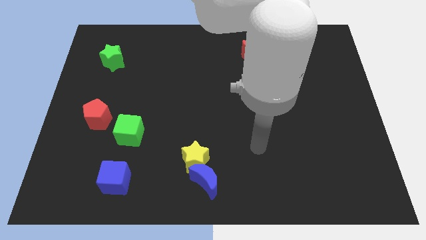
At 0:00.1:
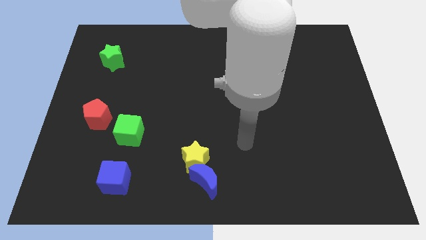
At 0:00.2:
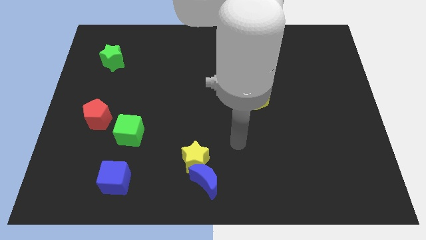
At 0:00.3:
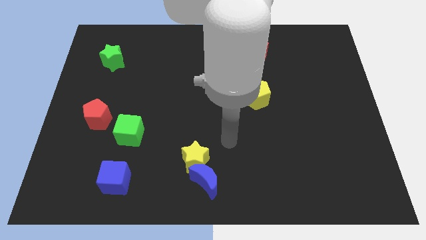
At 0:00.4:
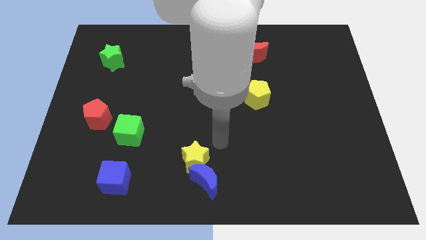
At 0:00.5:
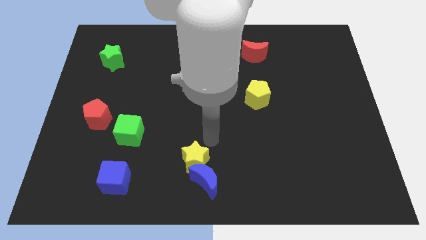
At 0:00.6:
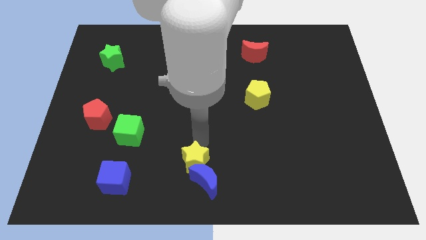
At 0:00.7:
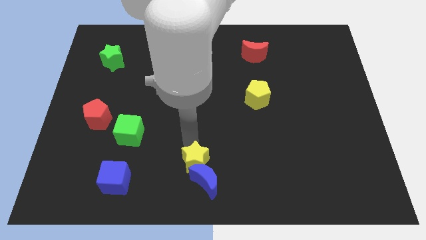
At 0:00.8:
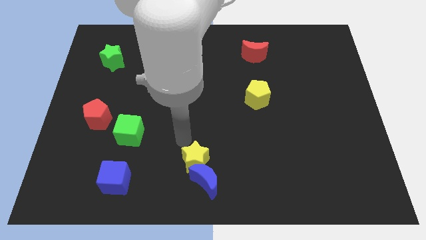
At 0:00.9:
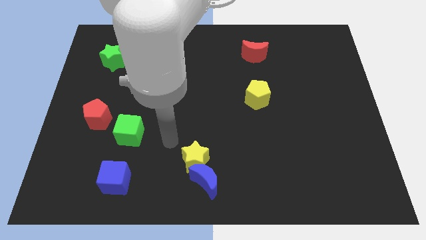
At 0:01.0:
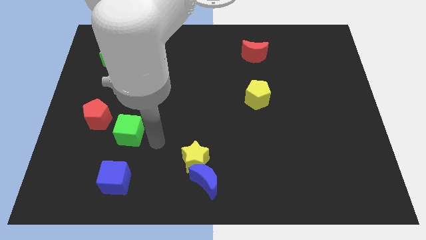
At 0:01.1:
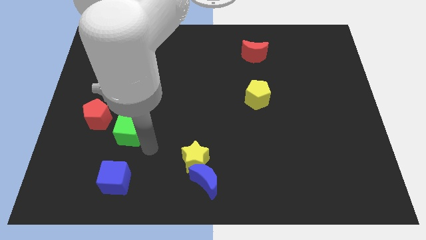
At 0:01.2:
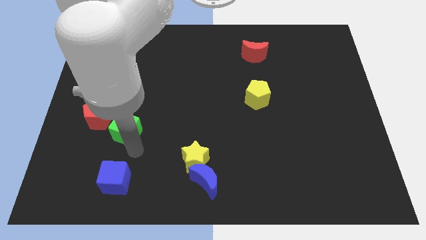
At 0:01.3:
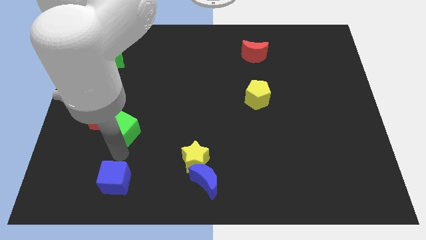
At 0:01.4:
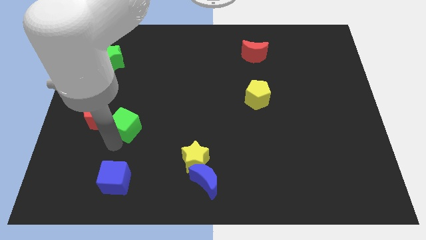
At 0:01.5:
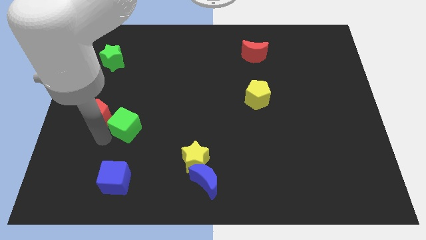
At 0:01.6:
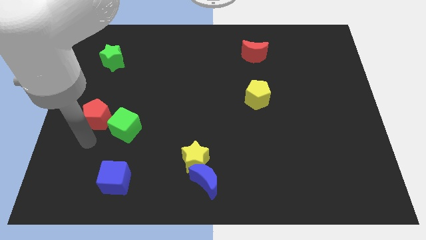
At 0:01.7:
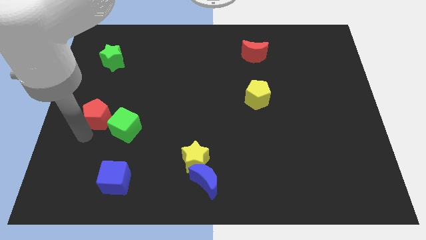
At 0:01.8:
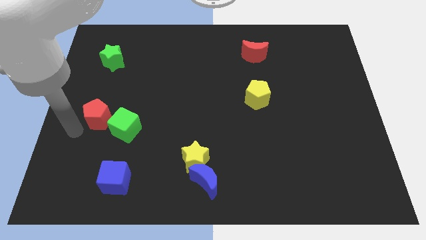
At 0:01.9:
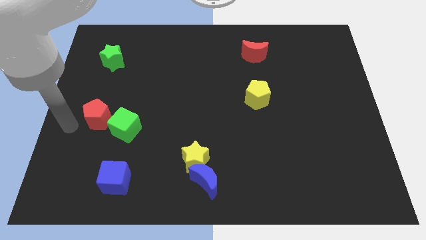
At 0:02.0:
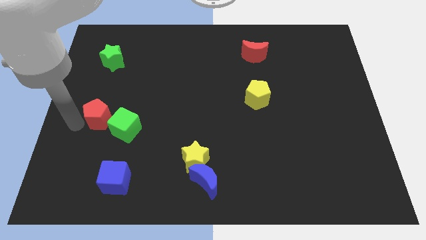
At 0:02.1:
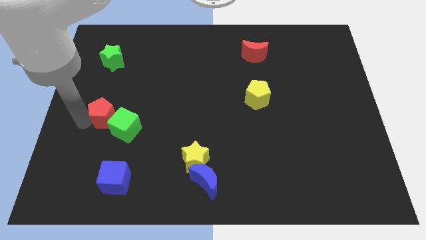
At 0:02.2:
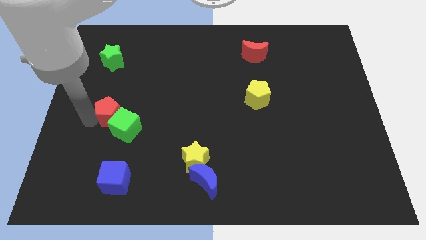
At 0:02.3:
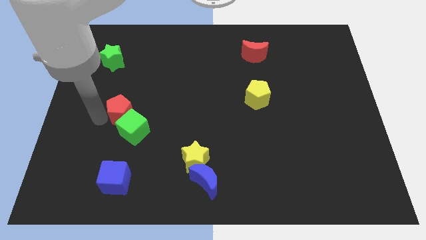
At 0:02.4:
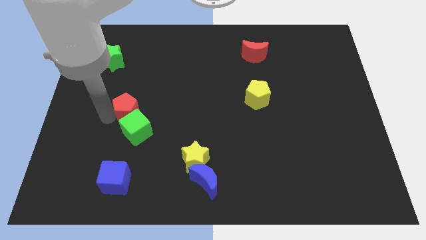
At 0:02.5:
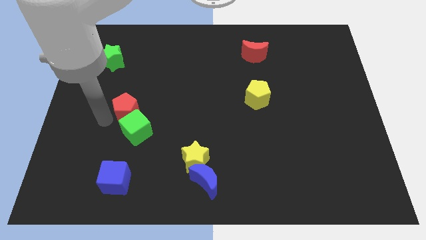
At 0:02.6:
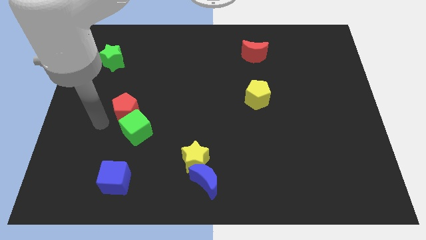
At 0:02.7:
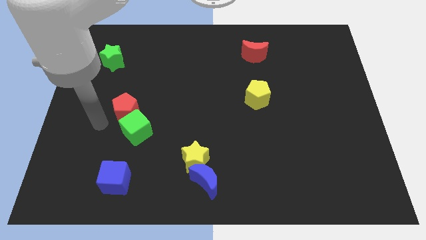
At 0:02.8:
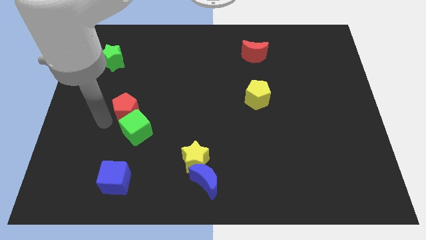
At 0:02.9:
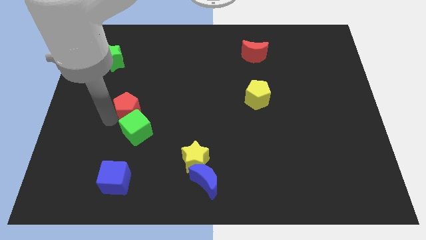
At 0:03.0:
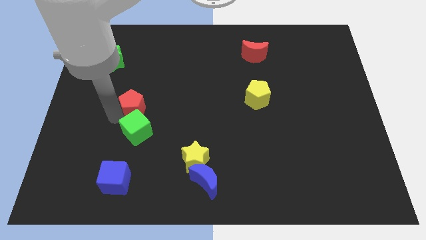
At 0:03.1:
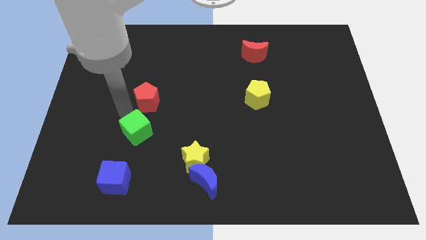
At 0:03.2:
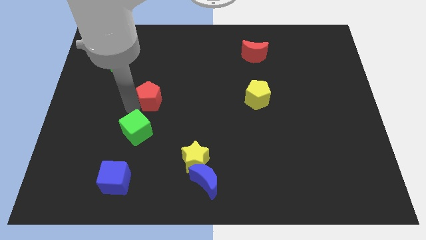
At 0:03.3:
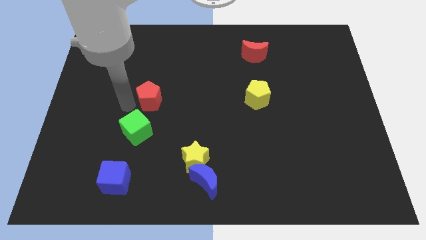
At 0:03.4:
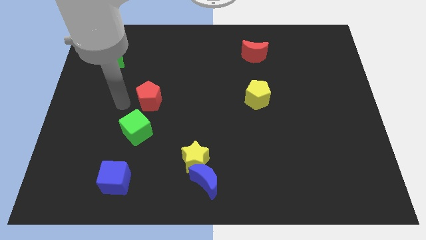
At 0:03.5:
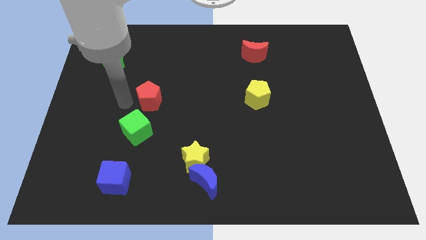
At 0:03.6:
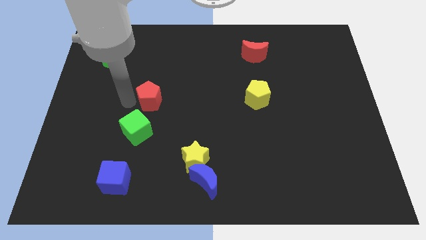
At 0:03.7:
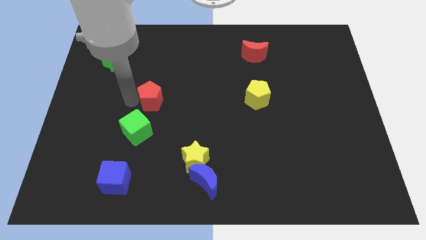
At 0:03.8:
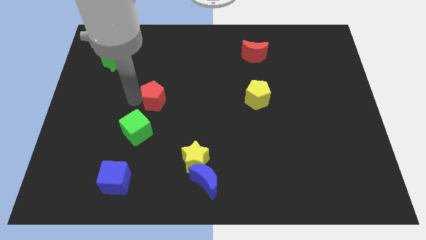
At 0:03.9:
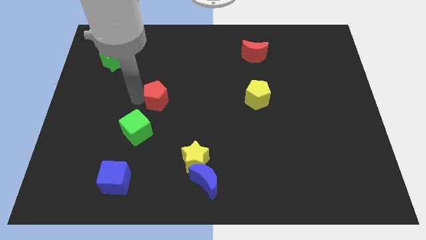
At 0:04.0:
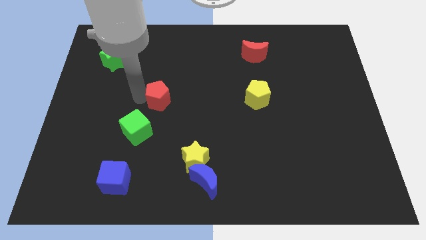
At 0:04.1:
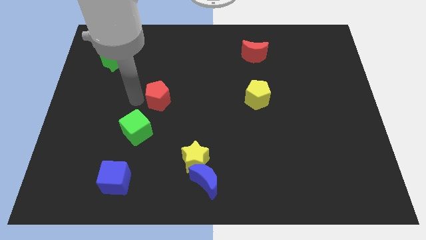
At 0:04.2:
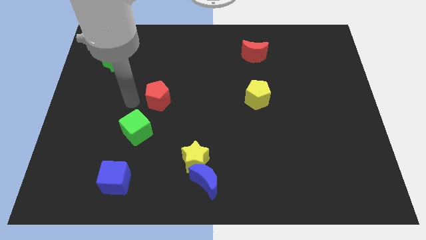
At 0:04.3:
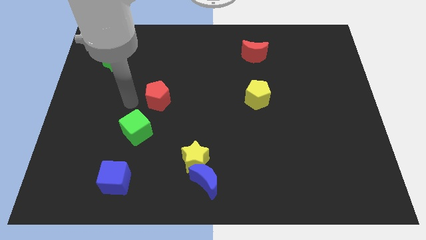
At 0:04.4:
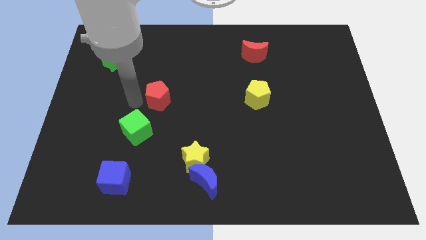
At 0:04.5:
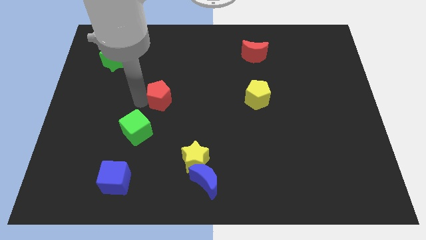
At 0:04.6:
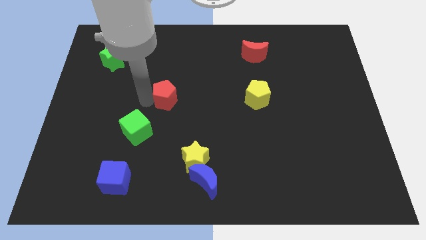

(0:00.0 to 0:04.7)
move the red pentagon to the middle of the board

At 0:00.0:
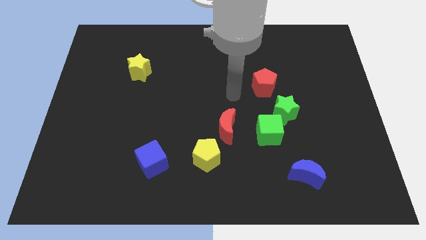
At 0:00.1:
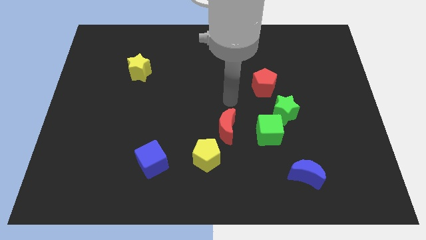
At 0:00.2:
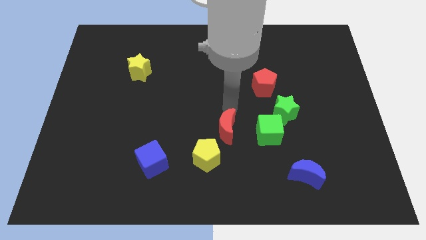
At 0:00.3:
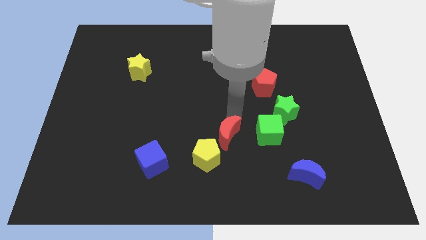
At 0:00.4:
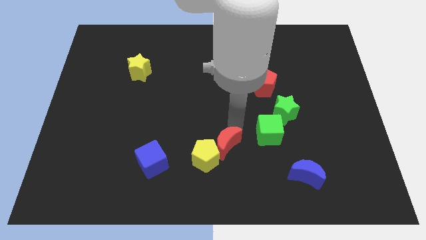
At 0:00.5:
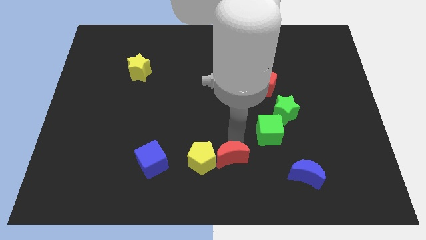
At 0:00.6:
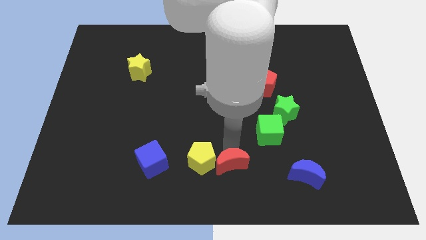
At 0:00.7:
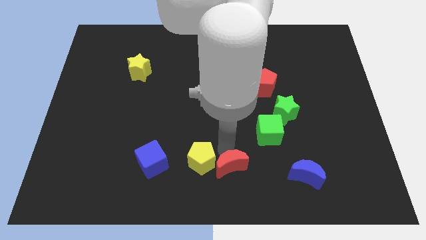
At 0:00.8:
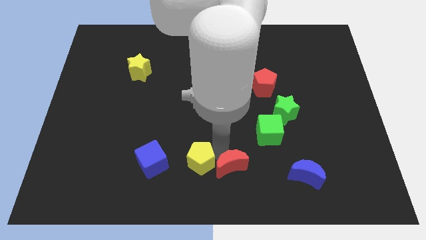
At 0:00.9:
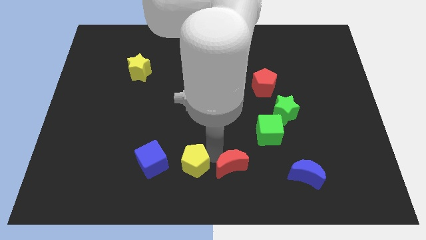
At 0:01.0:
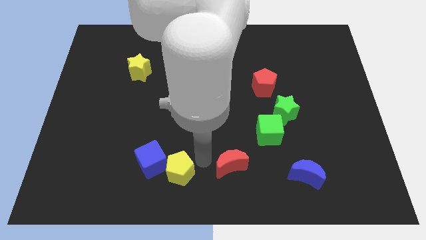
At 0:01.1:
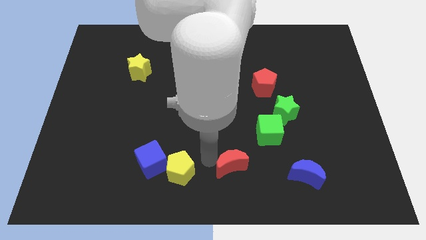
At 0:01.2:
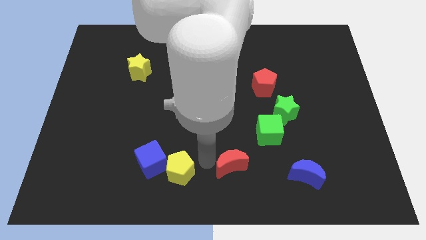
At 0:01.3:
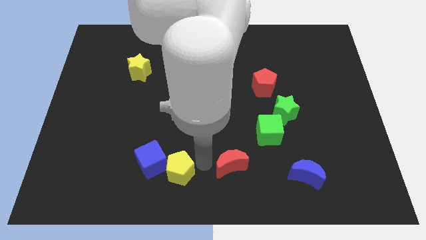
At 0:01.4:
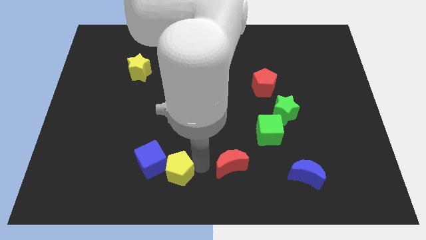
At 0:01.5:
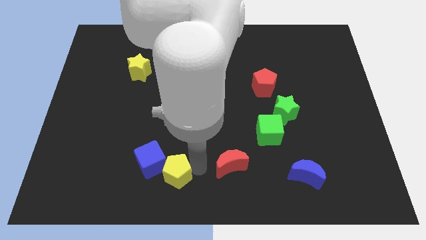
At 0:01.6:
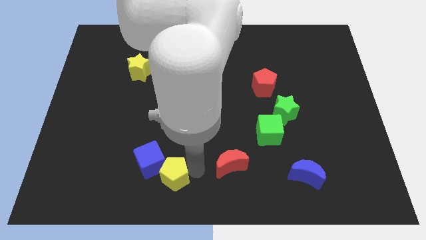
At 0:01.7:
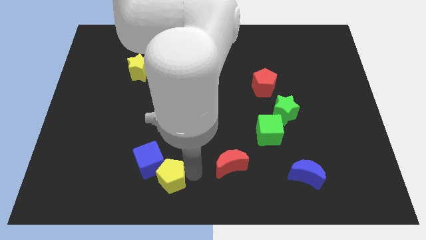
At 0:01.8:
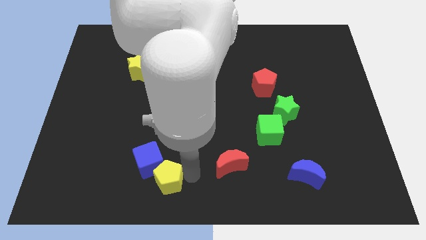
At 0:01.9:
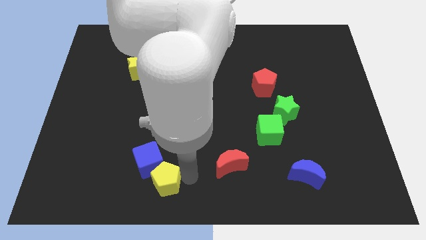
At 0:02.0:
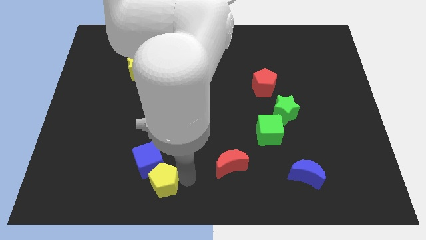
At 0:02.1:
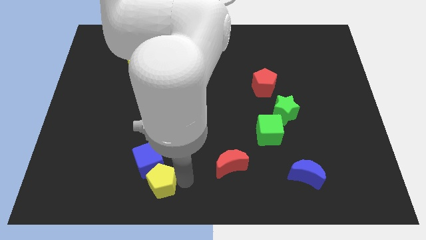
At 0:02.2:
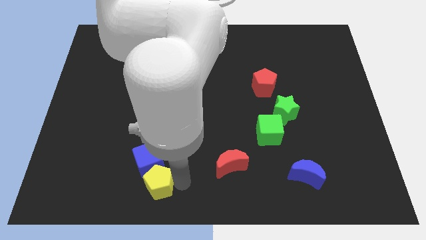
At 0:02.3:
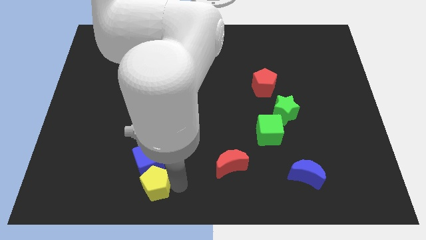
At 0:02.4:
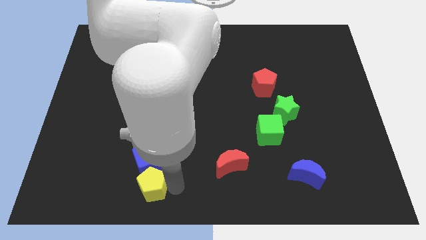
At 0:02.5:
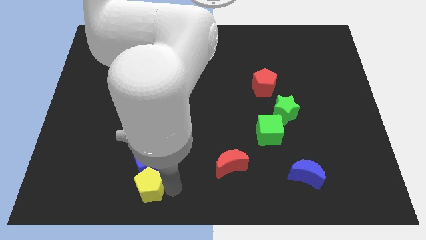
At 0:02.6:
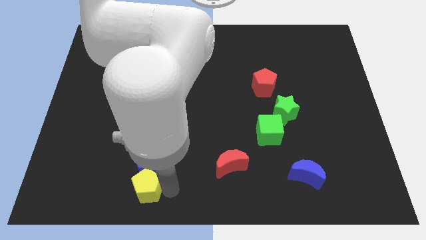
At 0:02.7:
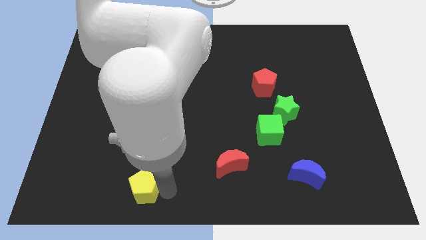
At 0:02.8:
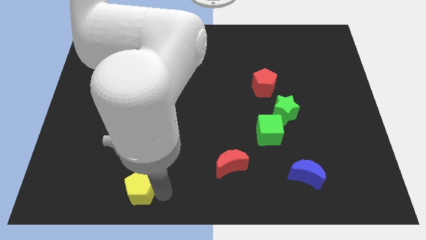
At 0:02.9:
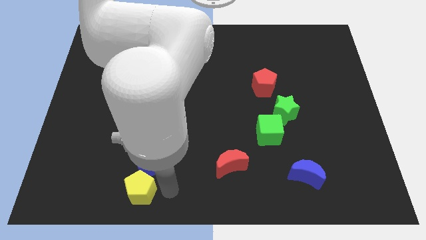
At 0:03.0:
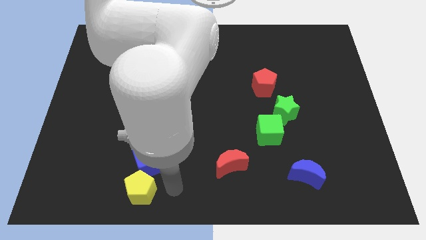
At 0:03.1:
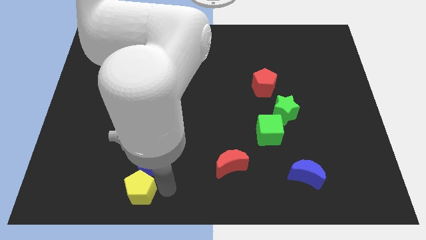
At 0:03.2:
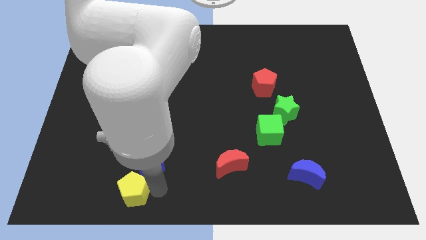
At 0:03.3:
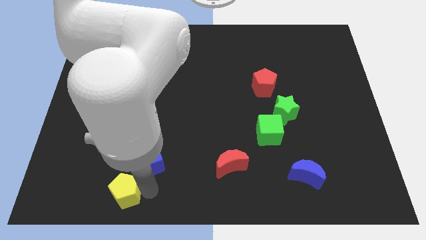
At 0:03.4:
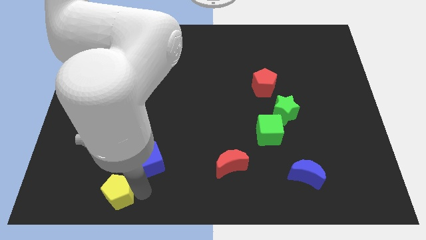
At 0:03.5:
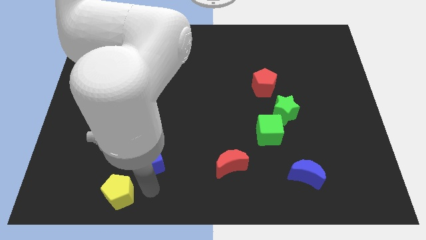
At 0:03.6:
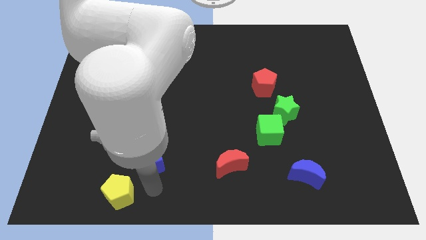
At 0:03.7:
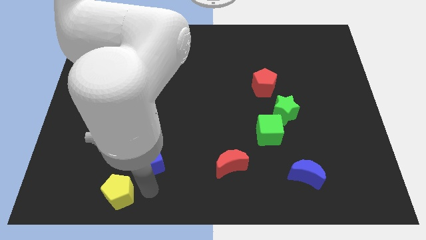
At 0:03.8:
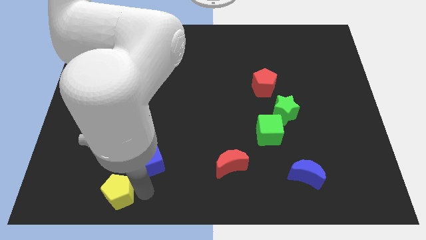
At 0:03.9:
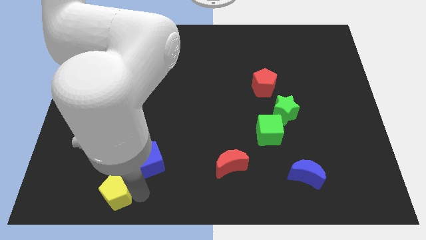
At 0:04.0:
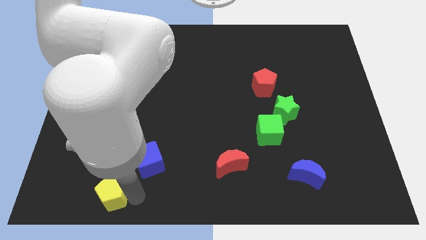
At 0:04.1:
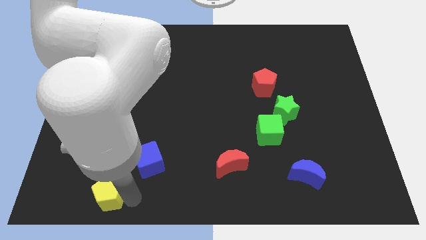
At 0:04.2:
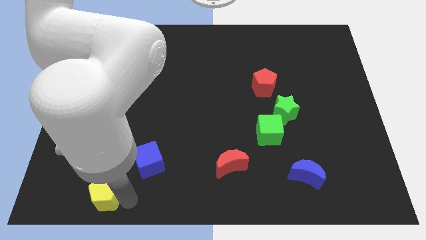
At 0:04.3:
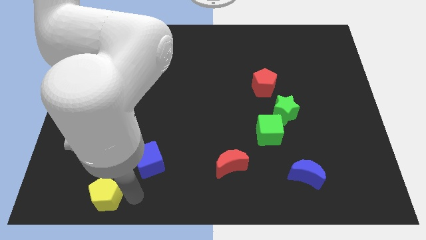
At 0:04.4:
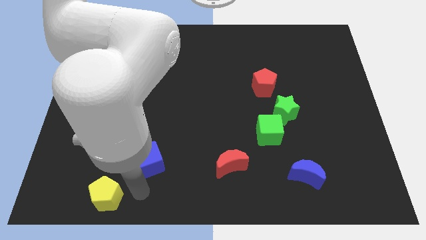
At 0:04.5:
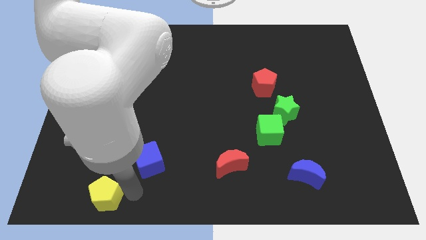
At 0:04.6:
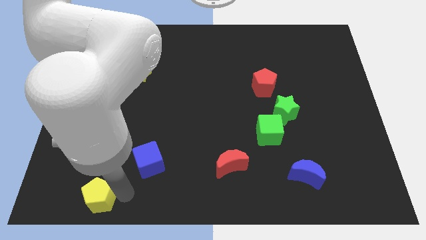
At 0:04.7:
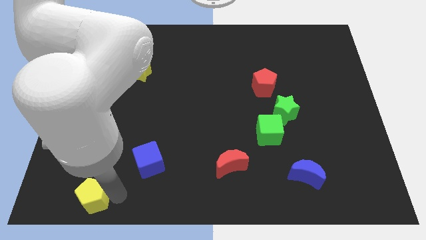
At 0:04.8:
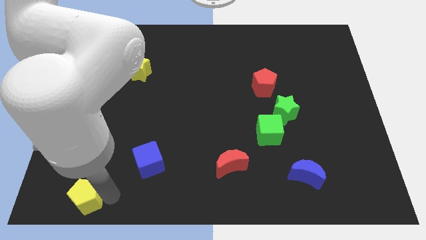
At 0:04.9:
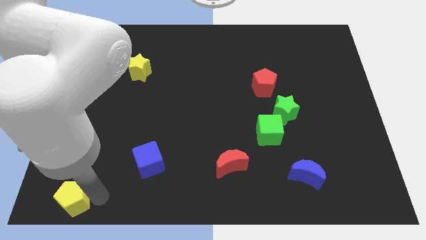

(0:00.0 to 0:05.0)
push the yellow pentagon to the bottom left corner
